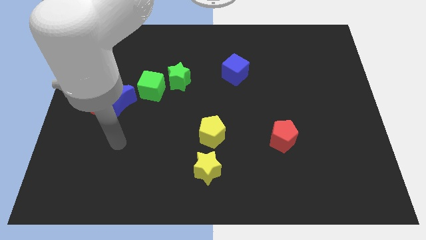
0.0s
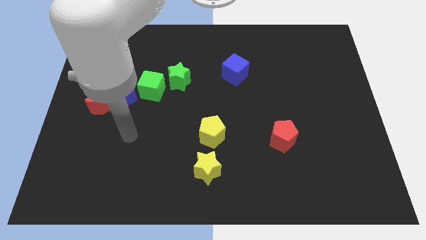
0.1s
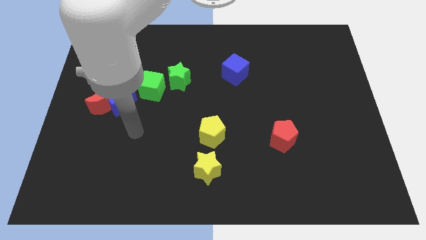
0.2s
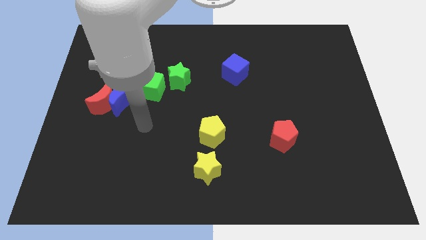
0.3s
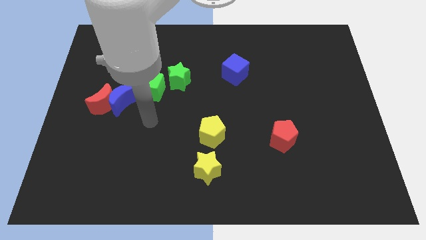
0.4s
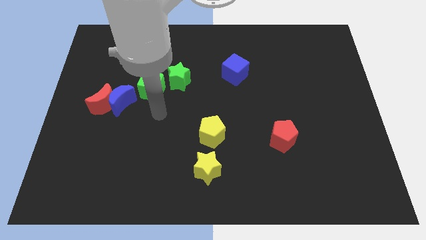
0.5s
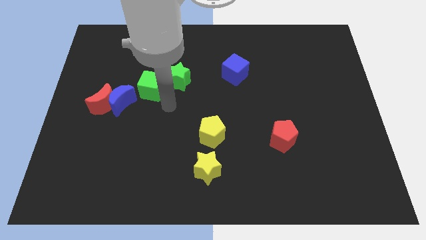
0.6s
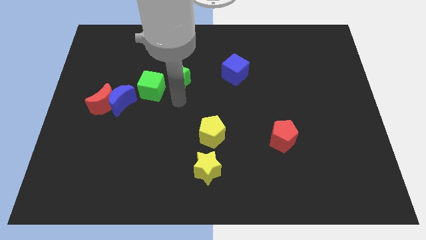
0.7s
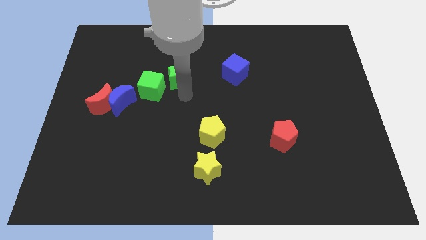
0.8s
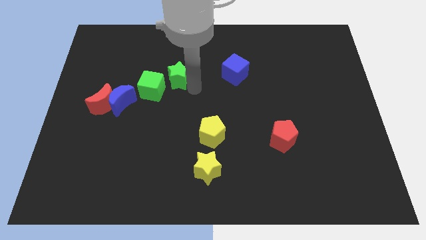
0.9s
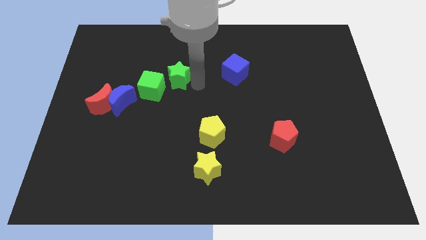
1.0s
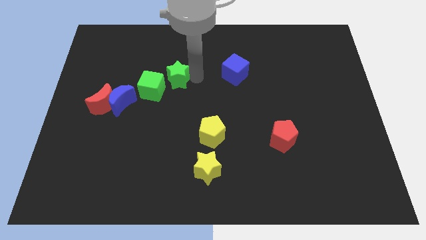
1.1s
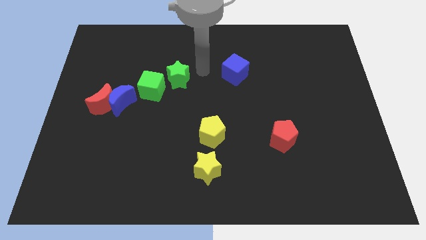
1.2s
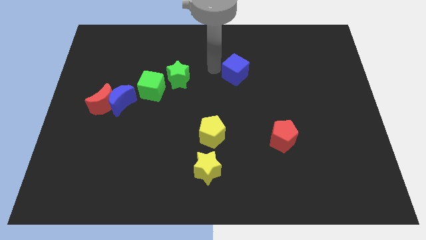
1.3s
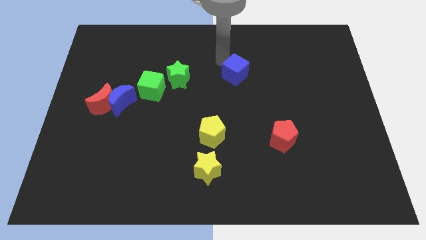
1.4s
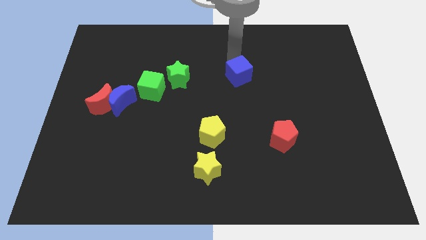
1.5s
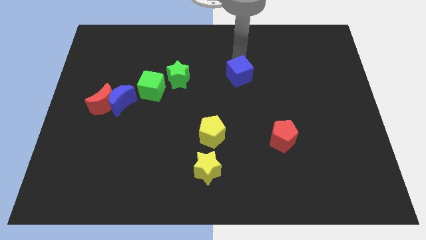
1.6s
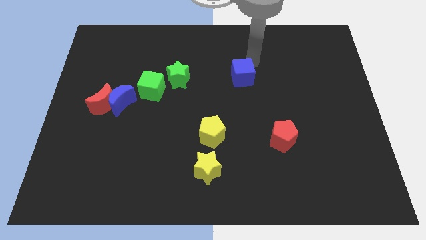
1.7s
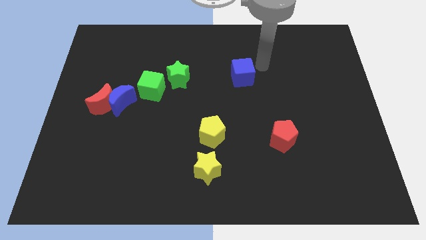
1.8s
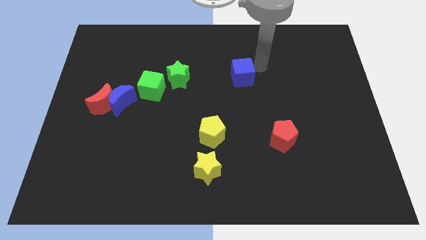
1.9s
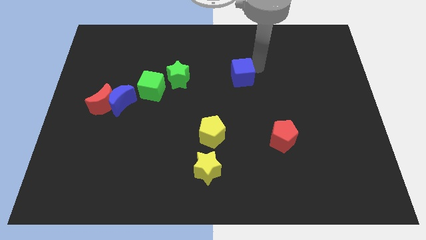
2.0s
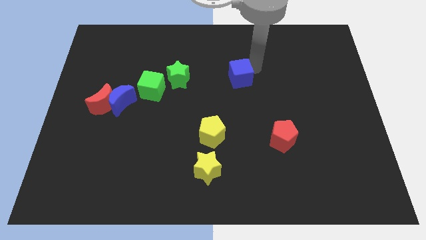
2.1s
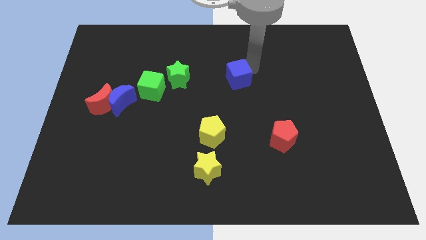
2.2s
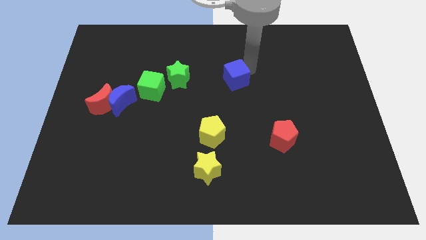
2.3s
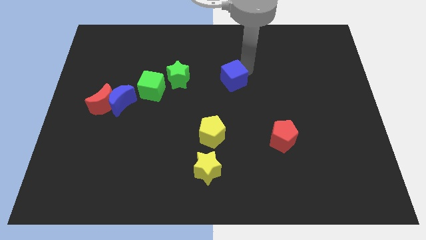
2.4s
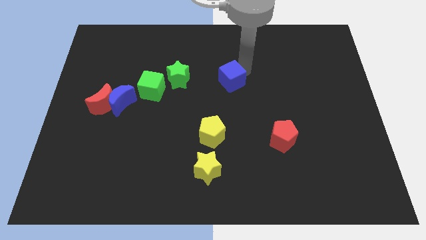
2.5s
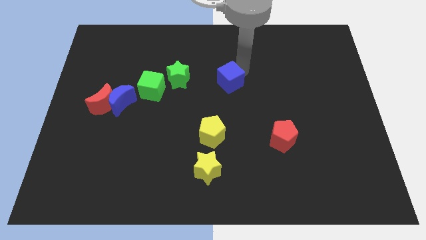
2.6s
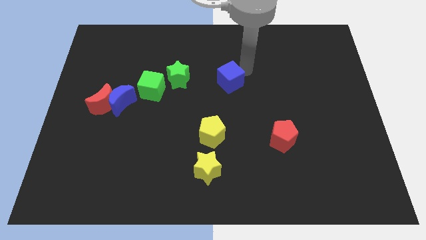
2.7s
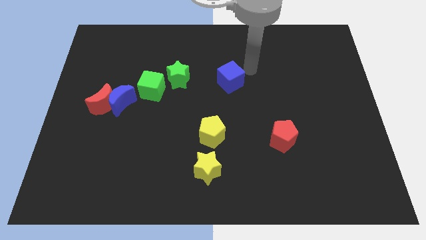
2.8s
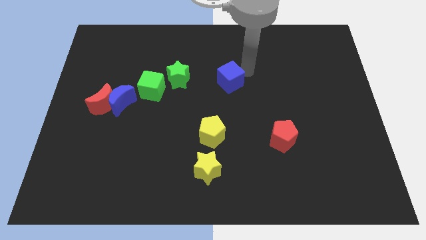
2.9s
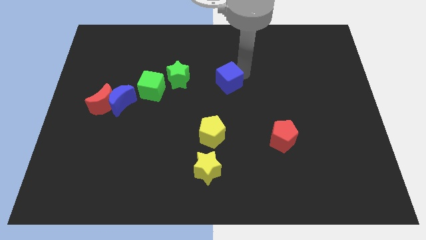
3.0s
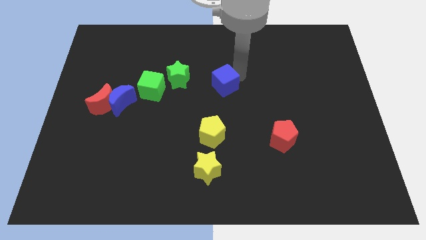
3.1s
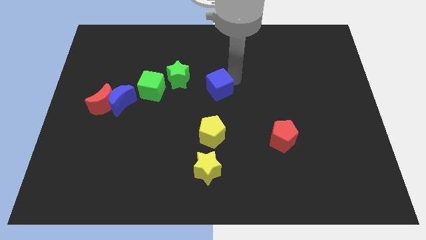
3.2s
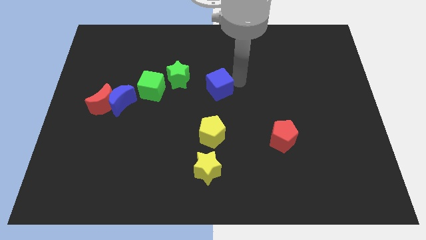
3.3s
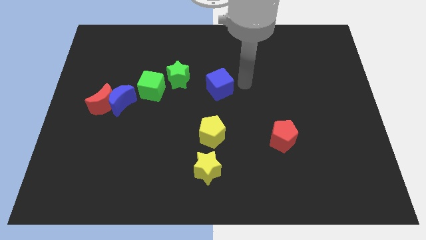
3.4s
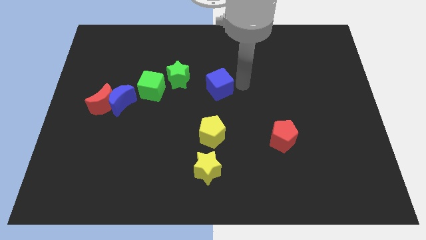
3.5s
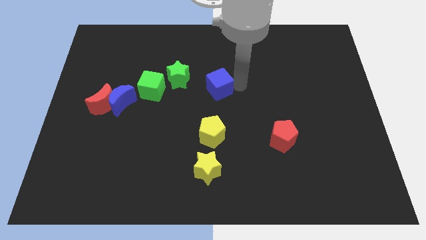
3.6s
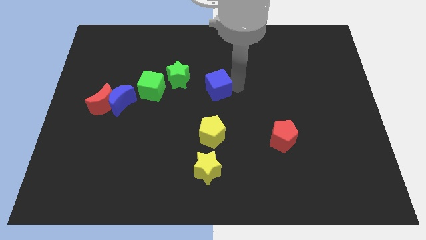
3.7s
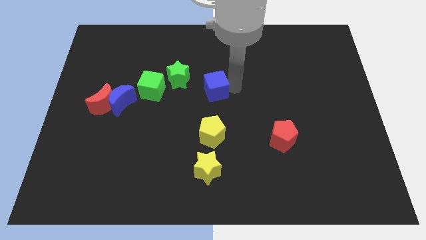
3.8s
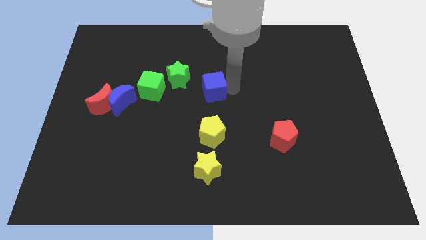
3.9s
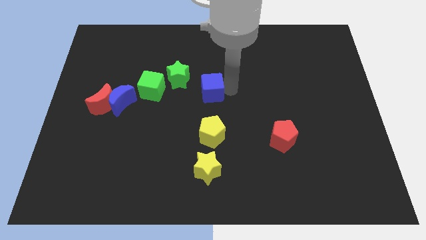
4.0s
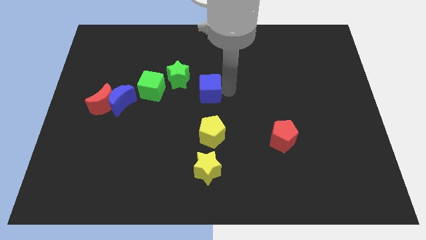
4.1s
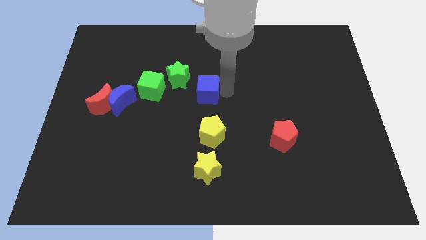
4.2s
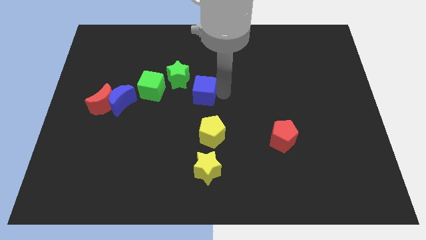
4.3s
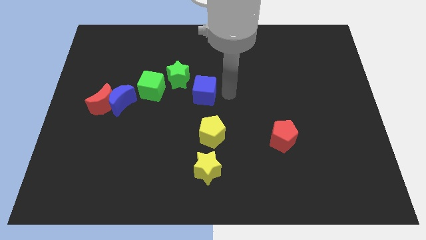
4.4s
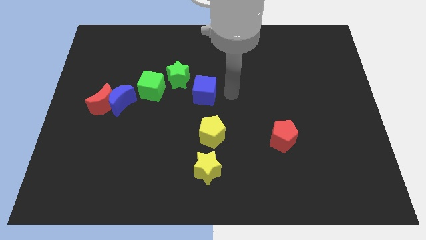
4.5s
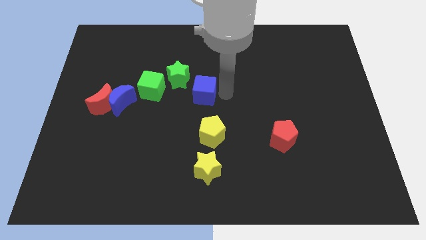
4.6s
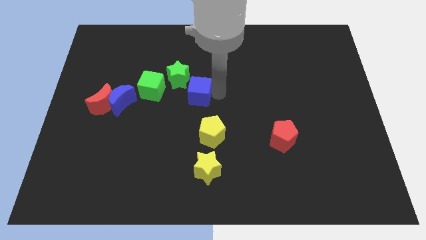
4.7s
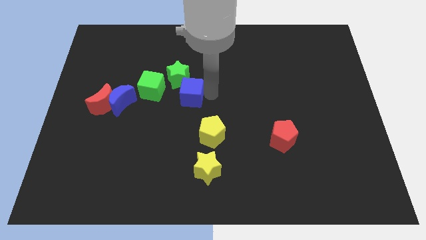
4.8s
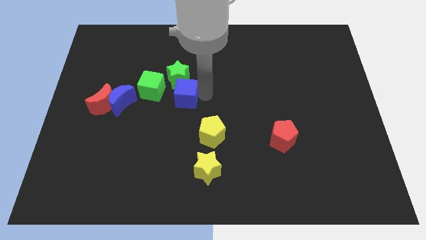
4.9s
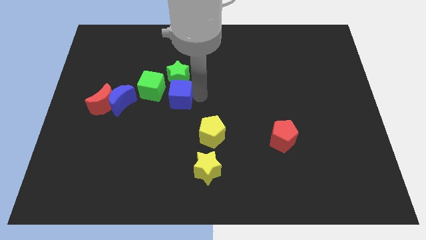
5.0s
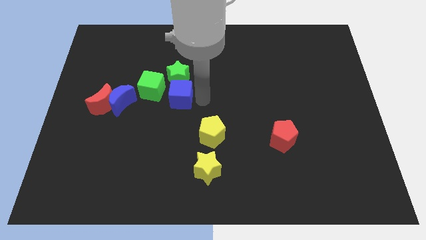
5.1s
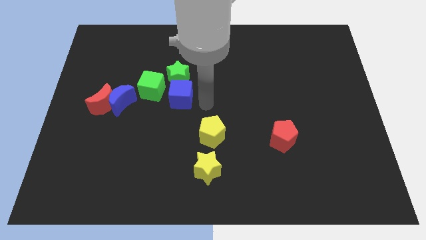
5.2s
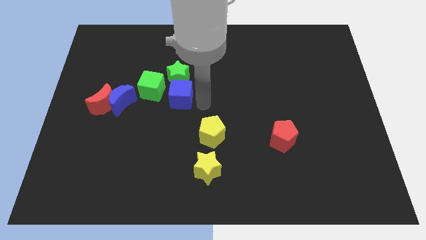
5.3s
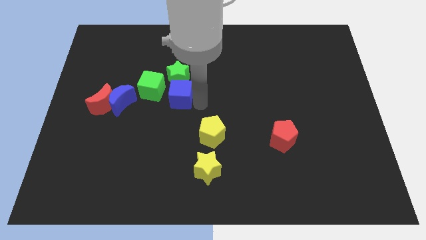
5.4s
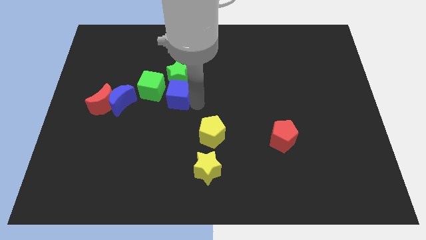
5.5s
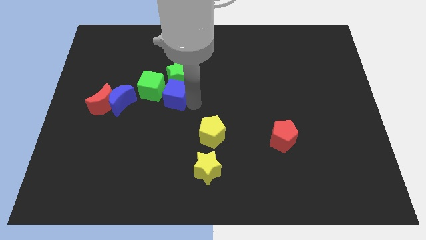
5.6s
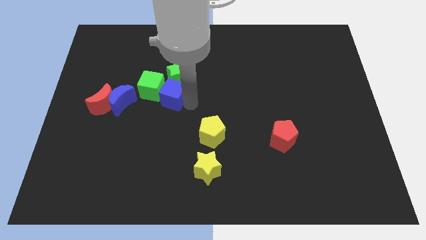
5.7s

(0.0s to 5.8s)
move the blue cube towards the green cube
